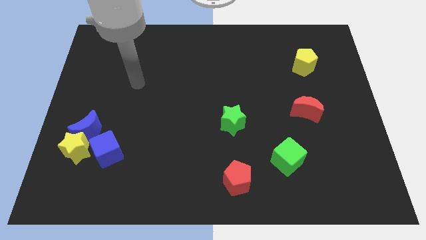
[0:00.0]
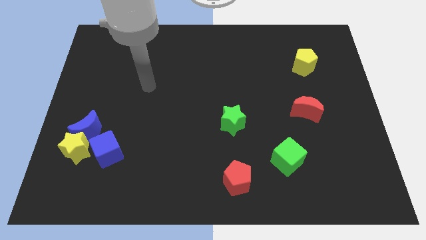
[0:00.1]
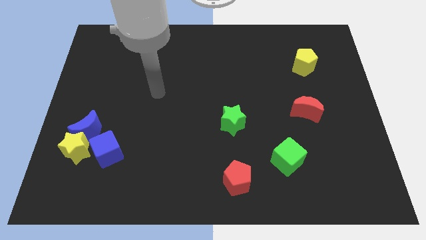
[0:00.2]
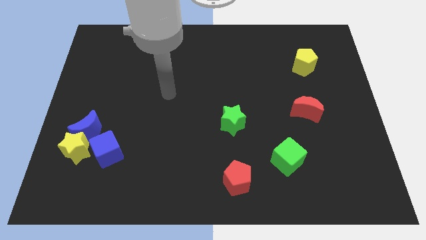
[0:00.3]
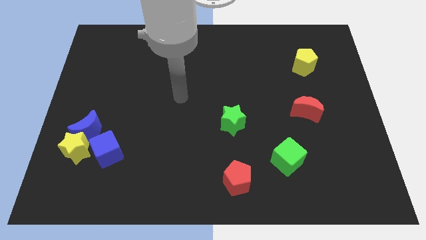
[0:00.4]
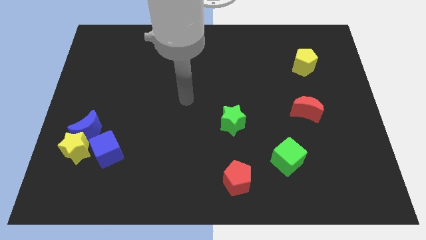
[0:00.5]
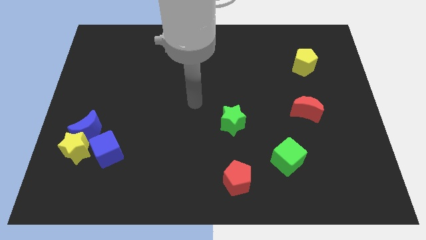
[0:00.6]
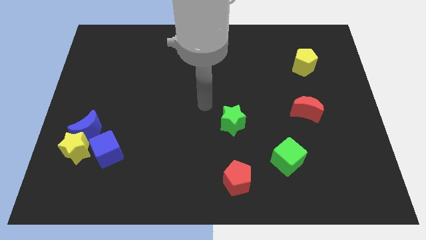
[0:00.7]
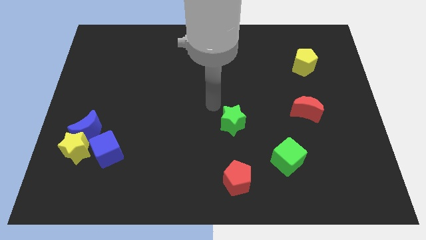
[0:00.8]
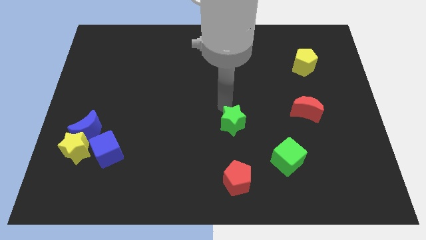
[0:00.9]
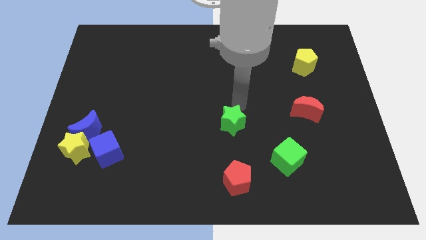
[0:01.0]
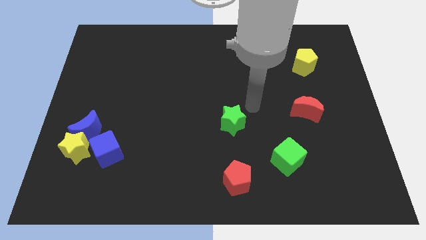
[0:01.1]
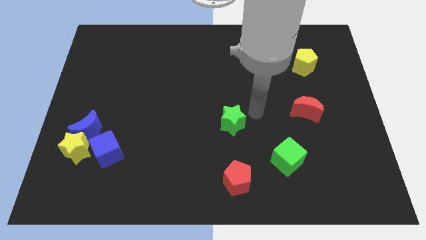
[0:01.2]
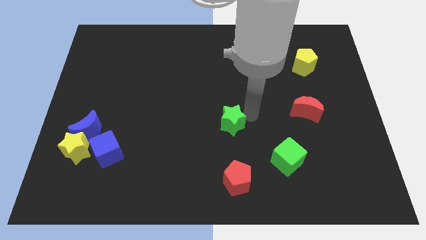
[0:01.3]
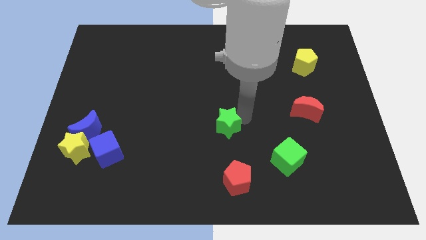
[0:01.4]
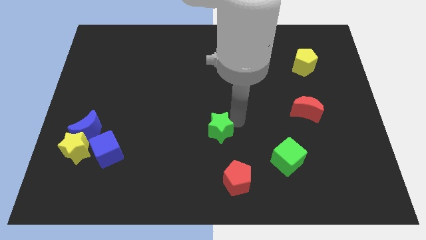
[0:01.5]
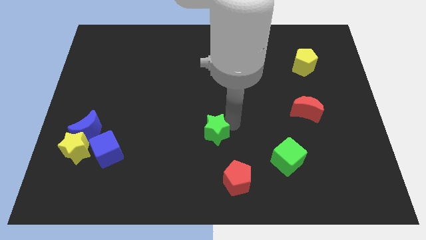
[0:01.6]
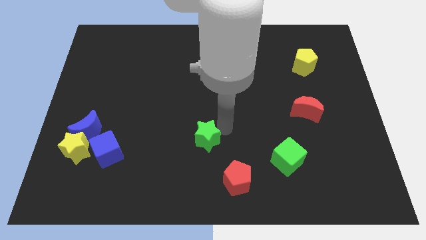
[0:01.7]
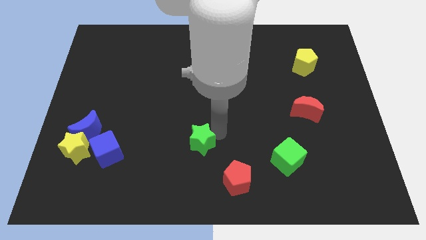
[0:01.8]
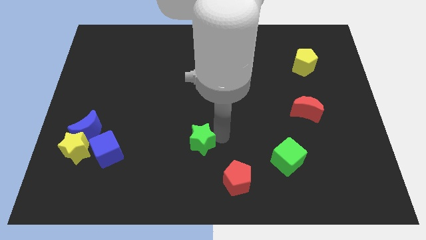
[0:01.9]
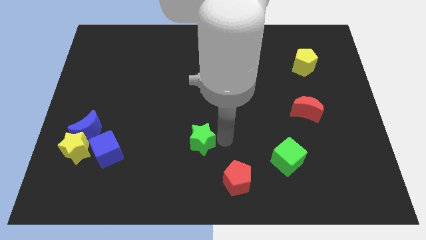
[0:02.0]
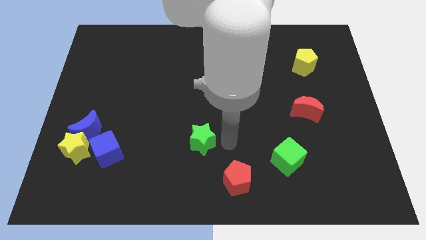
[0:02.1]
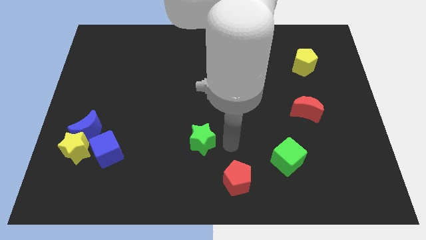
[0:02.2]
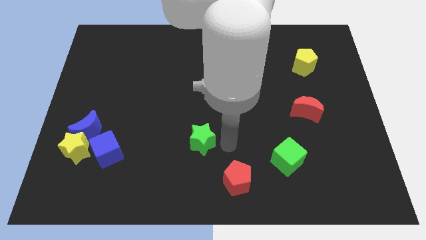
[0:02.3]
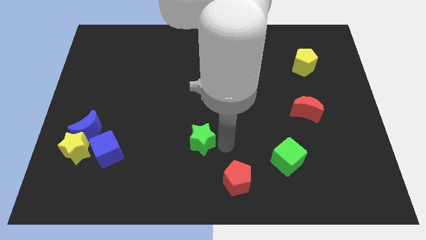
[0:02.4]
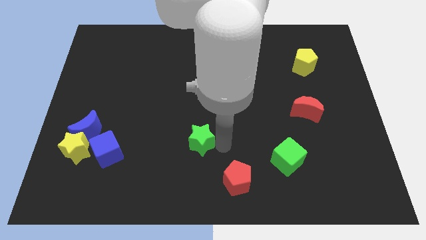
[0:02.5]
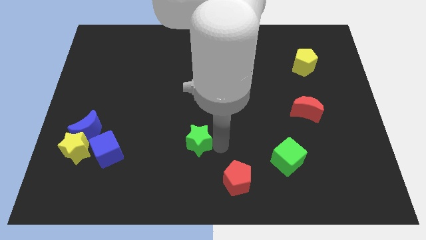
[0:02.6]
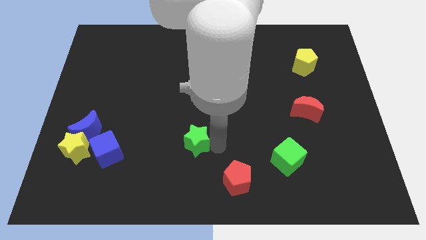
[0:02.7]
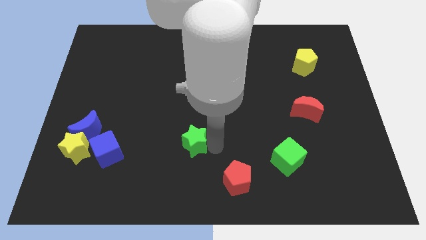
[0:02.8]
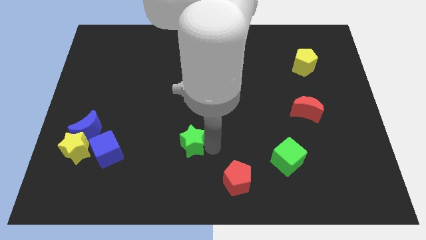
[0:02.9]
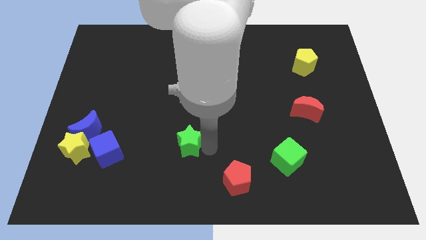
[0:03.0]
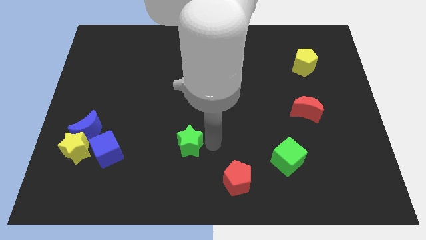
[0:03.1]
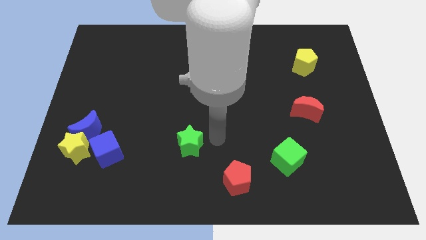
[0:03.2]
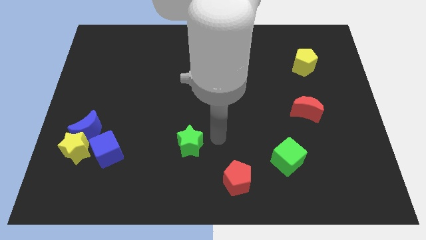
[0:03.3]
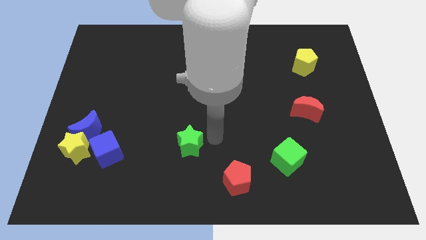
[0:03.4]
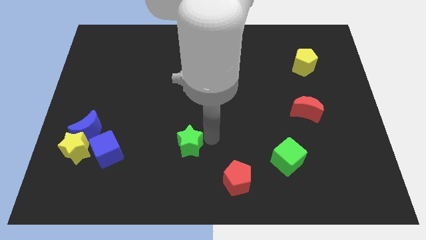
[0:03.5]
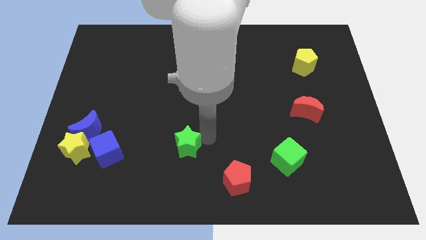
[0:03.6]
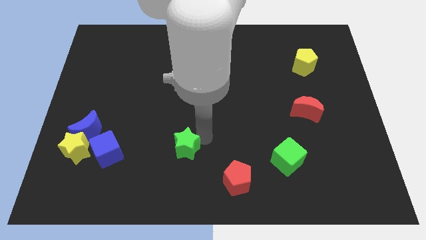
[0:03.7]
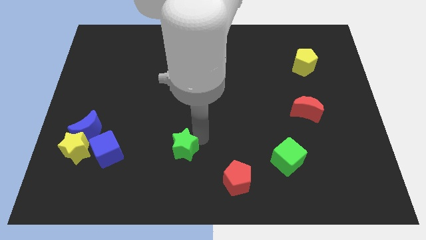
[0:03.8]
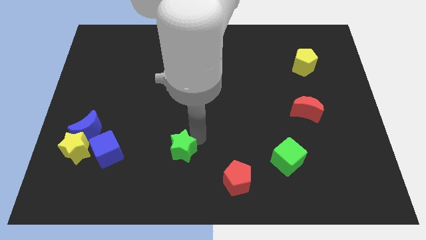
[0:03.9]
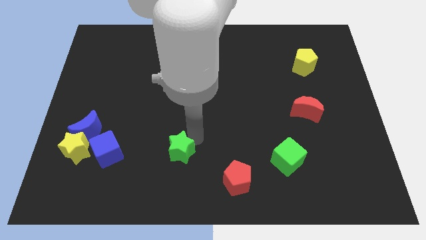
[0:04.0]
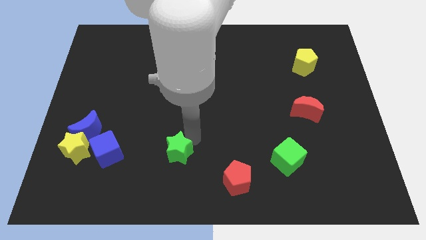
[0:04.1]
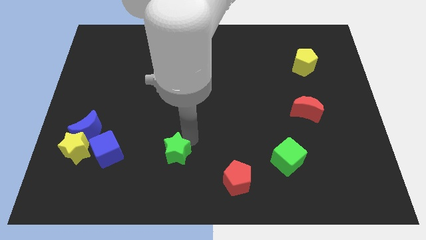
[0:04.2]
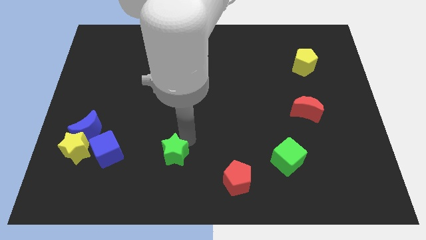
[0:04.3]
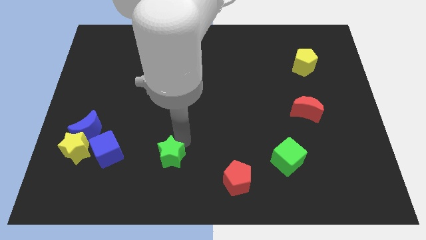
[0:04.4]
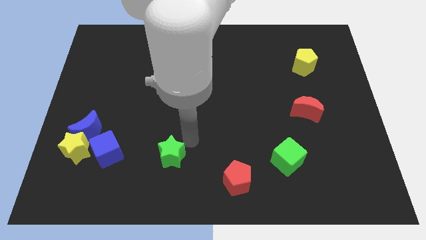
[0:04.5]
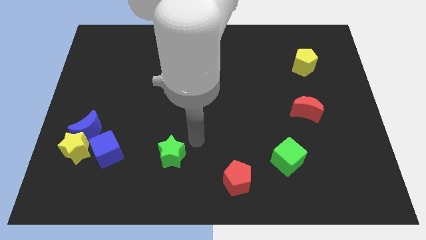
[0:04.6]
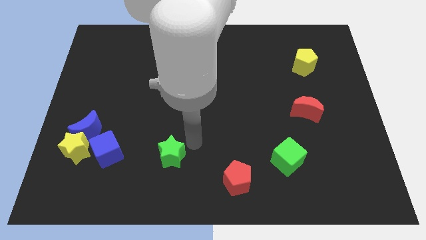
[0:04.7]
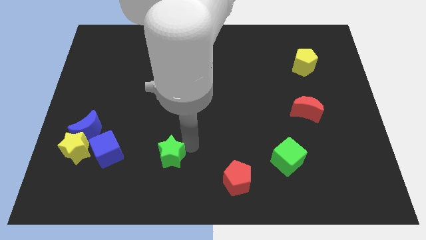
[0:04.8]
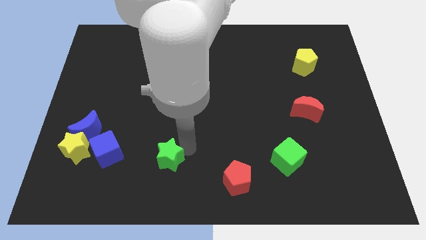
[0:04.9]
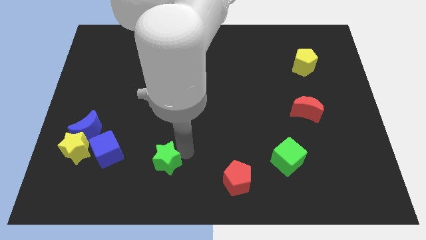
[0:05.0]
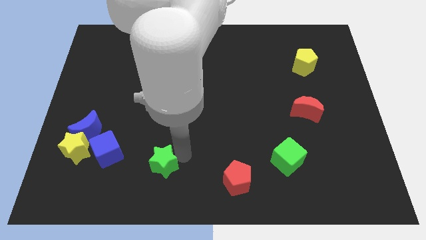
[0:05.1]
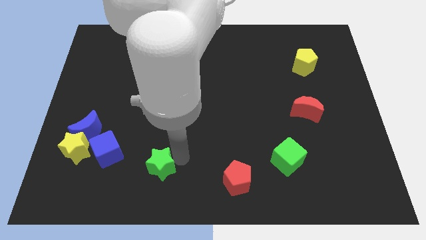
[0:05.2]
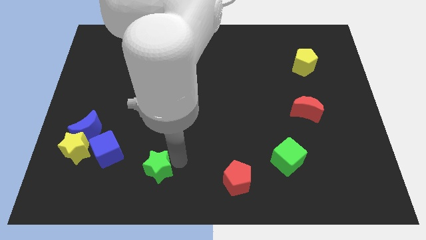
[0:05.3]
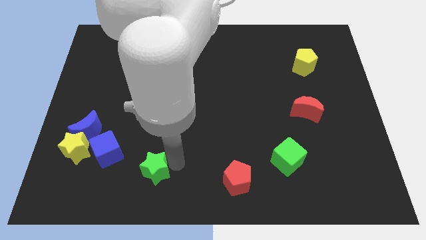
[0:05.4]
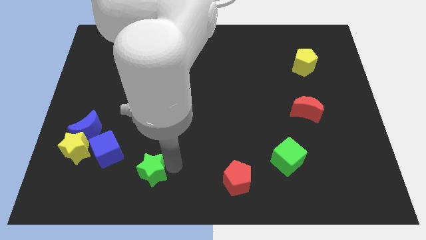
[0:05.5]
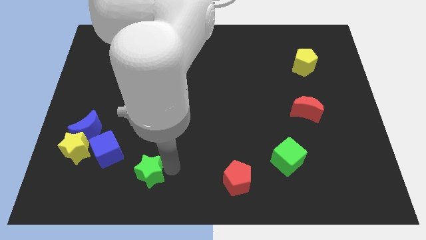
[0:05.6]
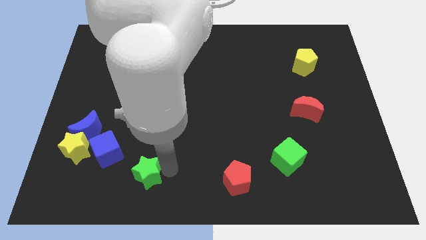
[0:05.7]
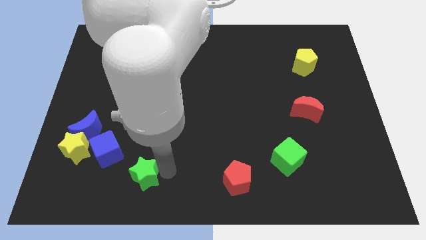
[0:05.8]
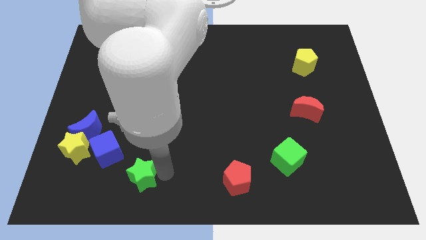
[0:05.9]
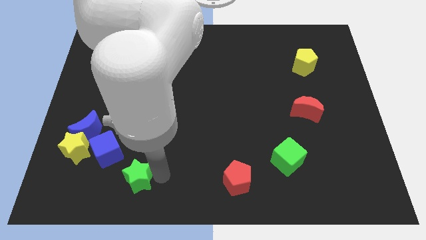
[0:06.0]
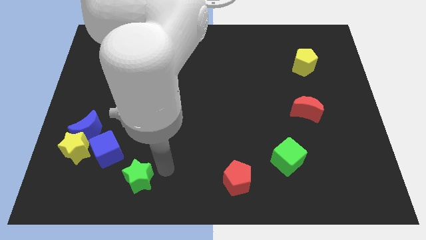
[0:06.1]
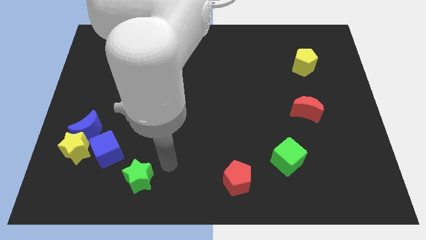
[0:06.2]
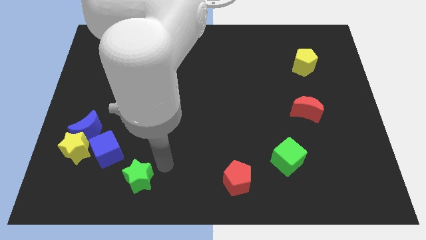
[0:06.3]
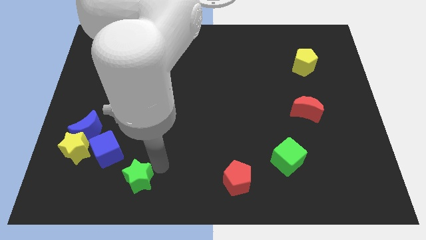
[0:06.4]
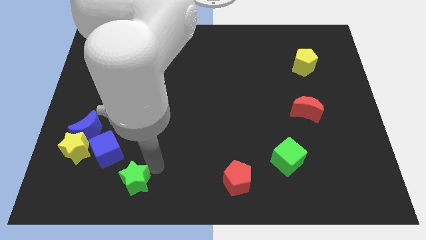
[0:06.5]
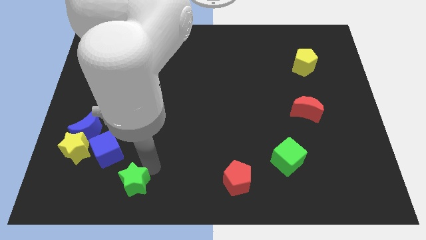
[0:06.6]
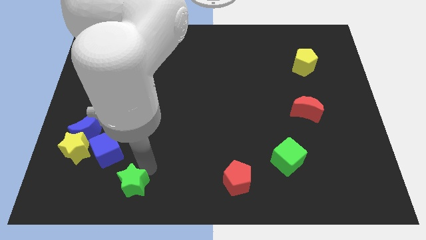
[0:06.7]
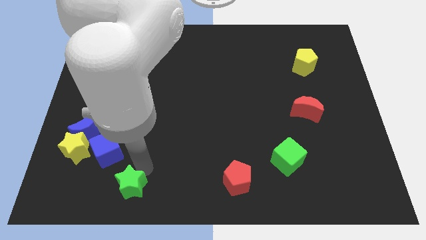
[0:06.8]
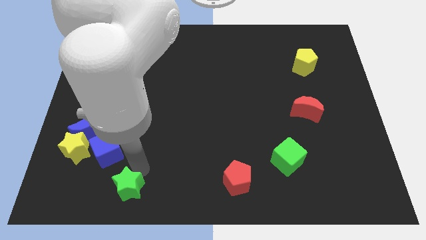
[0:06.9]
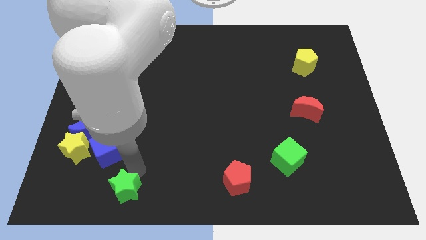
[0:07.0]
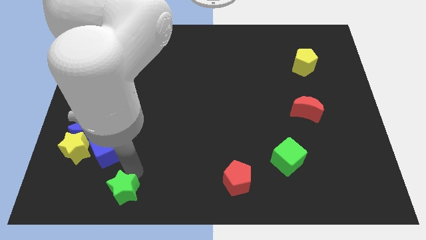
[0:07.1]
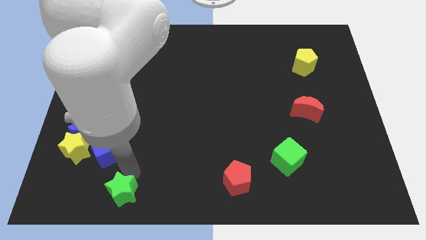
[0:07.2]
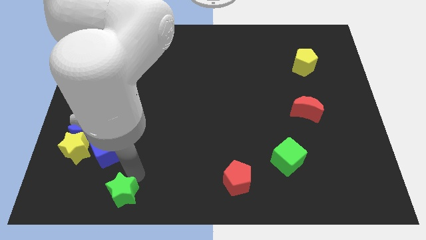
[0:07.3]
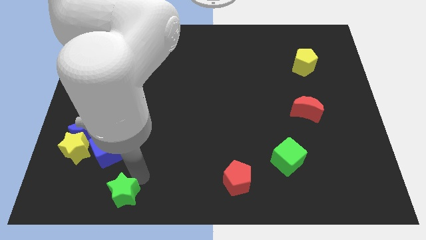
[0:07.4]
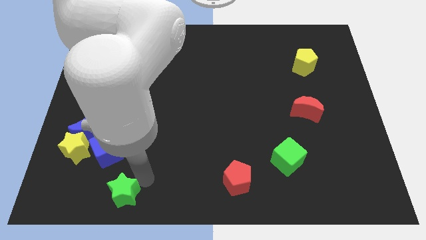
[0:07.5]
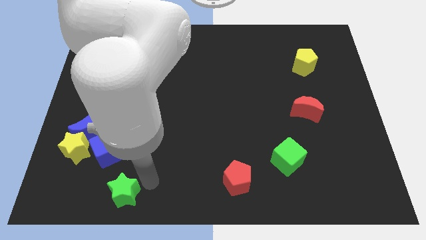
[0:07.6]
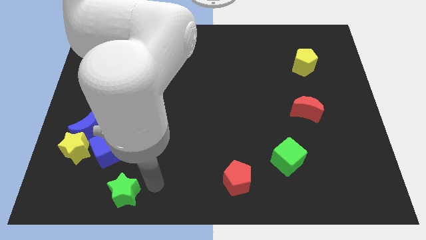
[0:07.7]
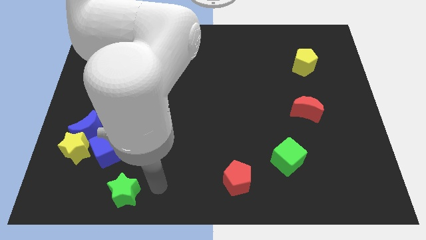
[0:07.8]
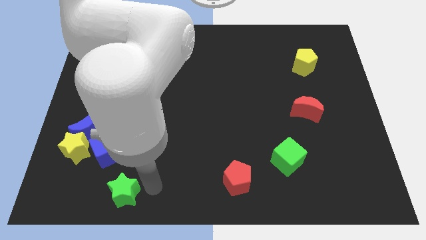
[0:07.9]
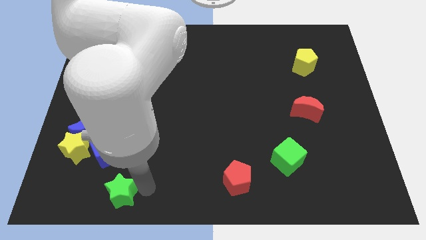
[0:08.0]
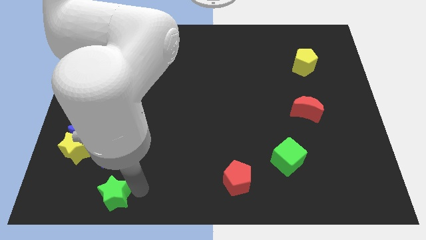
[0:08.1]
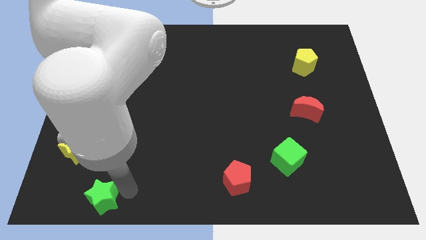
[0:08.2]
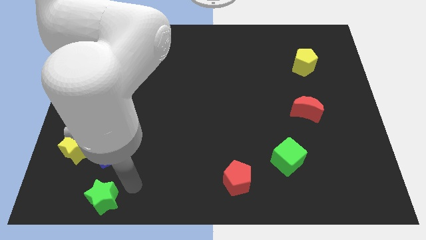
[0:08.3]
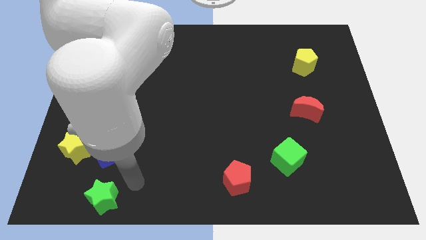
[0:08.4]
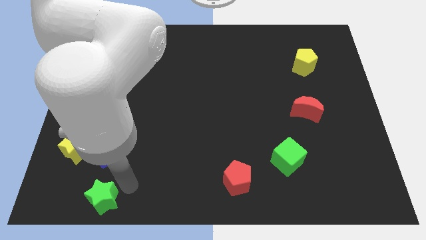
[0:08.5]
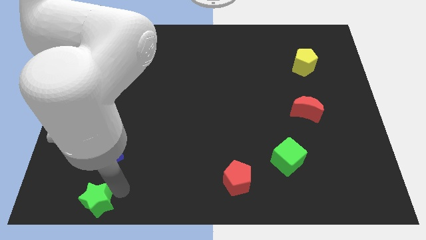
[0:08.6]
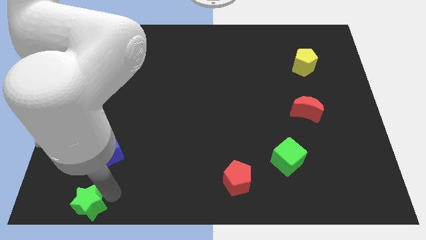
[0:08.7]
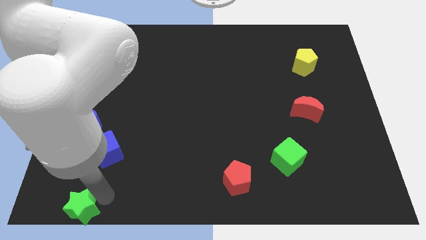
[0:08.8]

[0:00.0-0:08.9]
put the green star to the lower left corner
